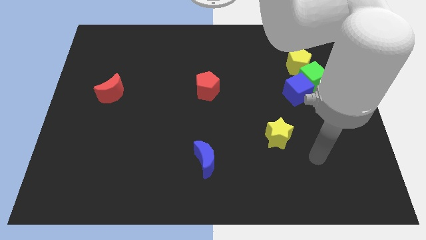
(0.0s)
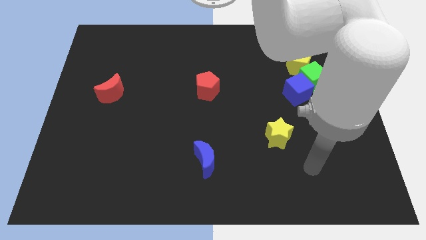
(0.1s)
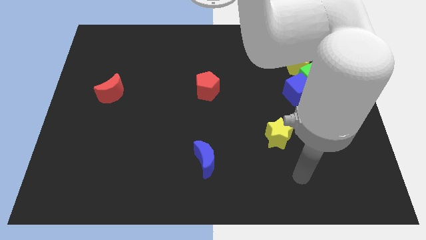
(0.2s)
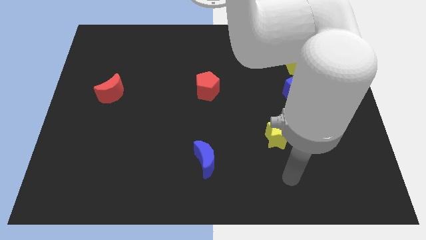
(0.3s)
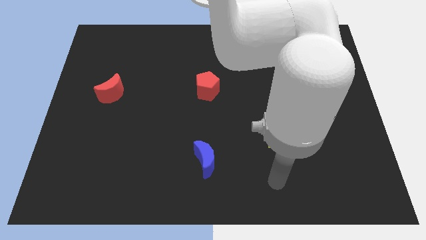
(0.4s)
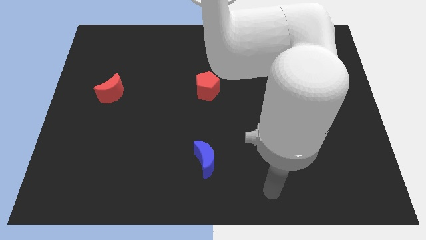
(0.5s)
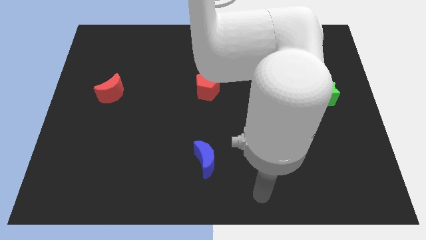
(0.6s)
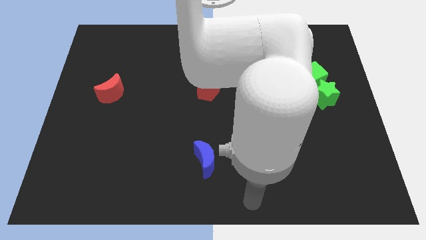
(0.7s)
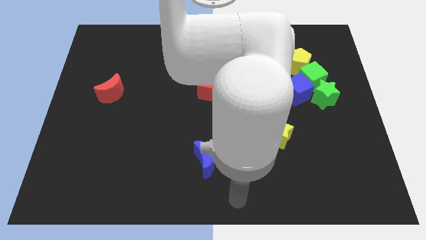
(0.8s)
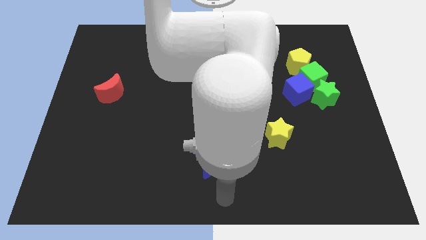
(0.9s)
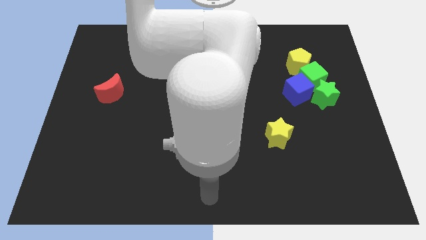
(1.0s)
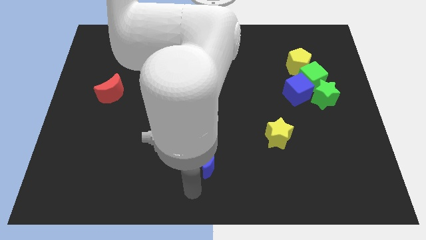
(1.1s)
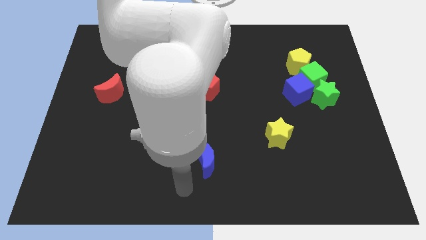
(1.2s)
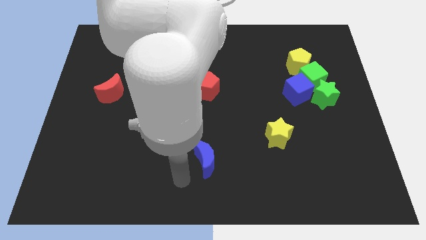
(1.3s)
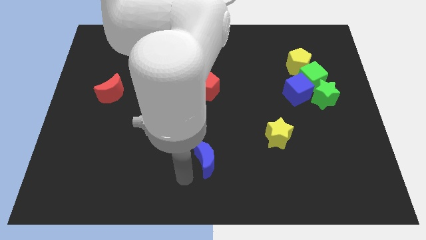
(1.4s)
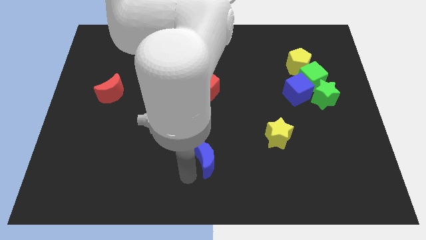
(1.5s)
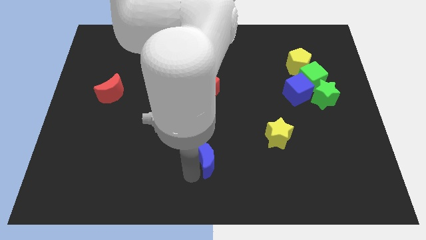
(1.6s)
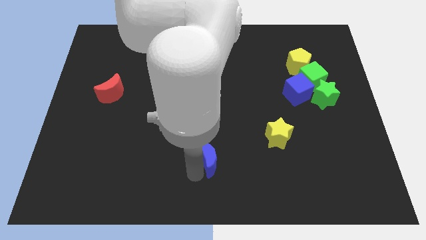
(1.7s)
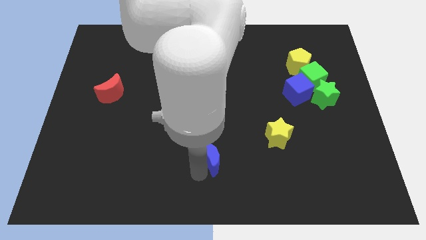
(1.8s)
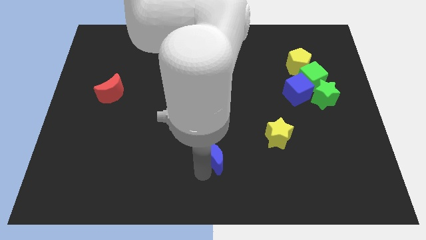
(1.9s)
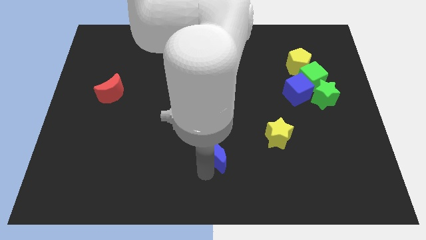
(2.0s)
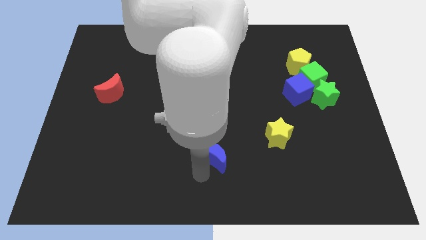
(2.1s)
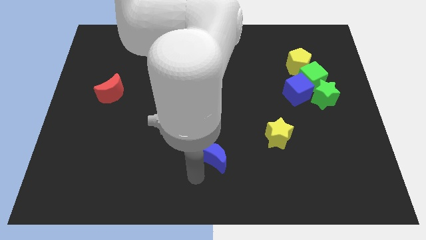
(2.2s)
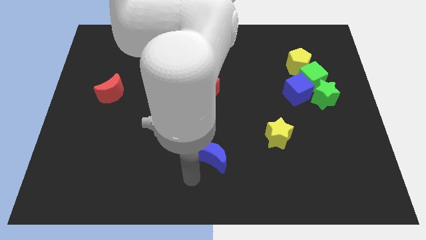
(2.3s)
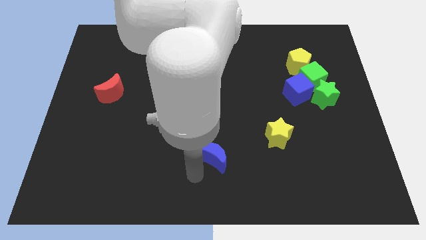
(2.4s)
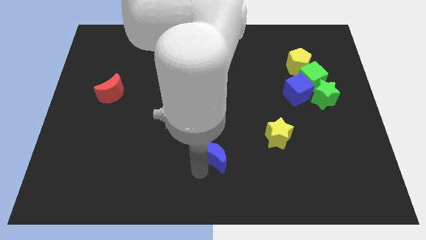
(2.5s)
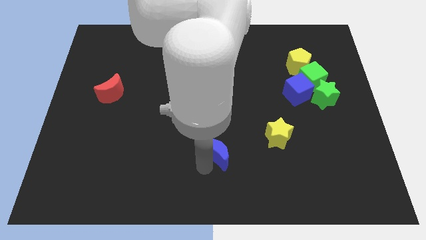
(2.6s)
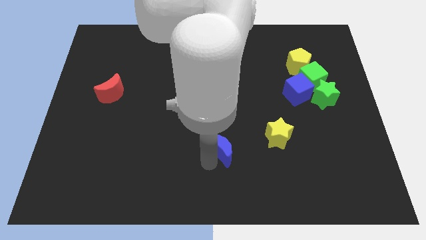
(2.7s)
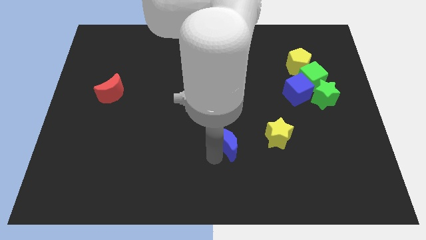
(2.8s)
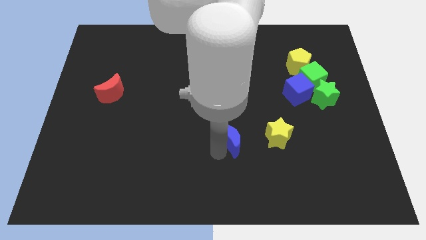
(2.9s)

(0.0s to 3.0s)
push the blue moon up and right somewhat

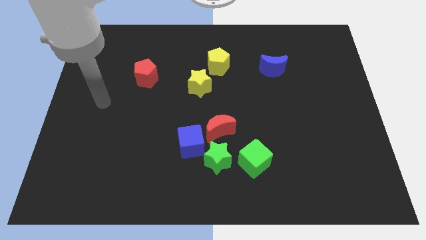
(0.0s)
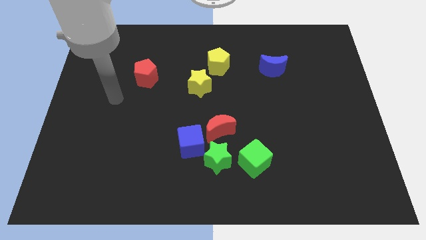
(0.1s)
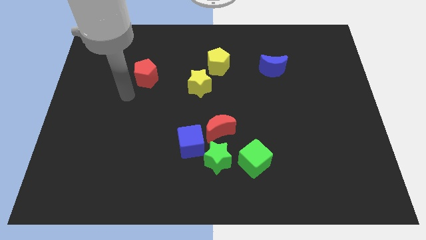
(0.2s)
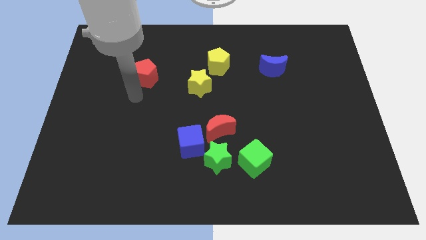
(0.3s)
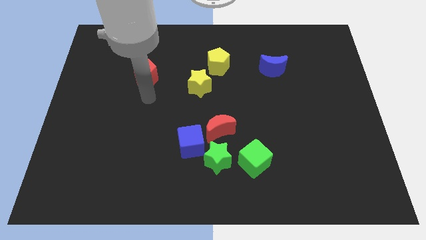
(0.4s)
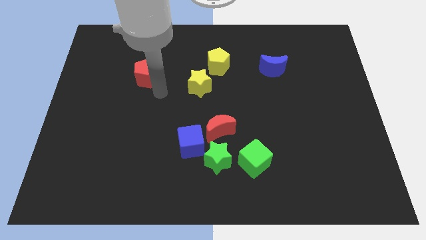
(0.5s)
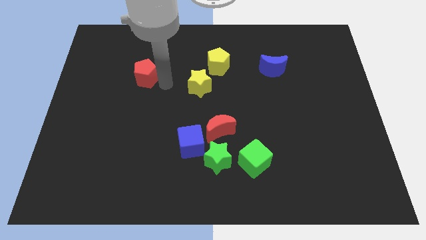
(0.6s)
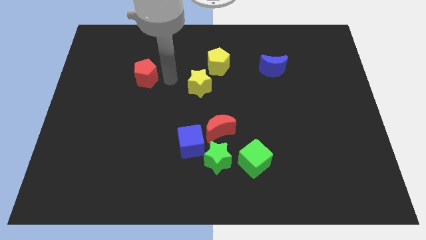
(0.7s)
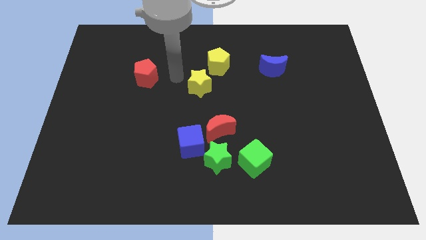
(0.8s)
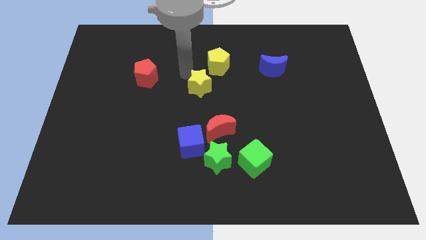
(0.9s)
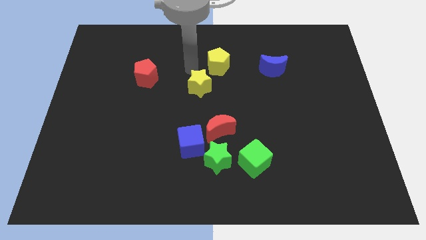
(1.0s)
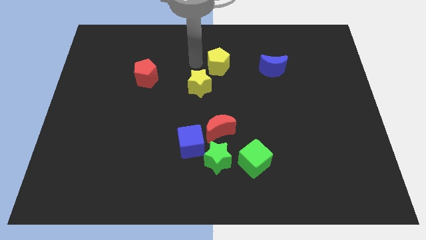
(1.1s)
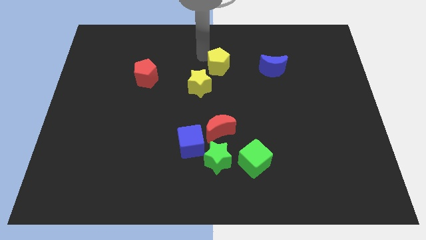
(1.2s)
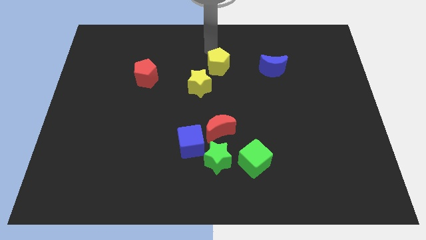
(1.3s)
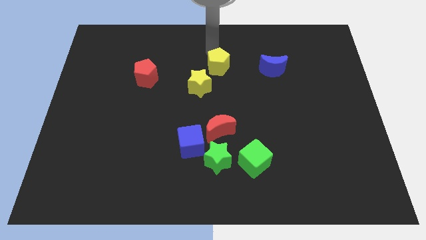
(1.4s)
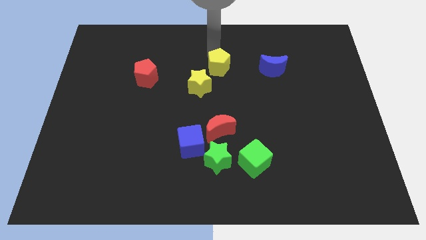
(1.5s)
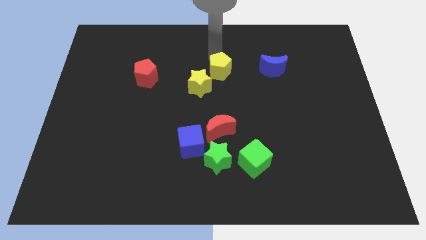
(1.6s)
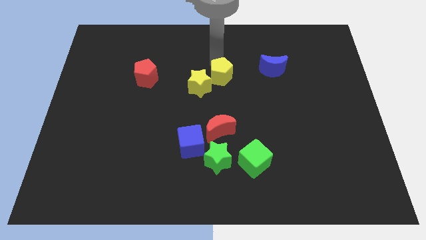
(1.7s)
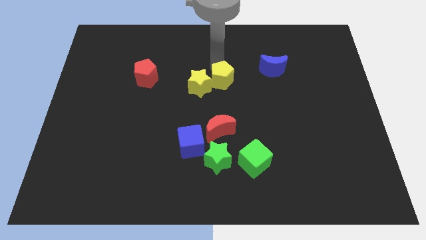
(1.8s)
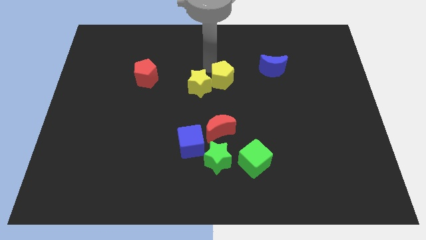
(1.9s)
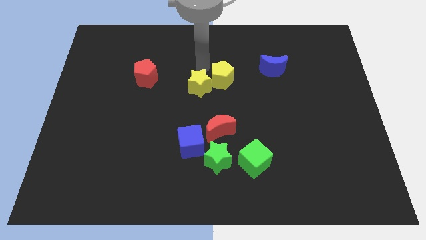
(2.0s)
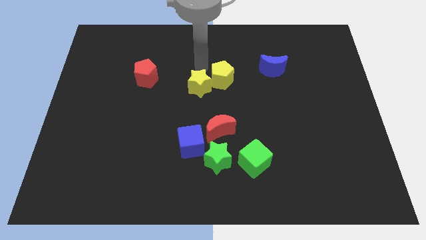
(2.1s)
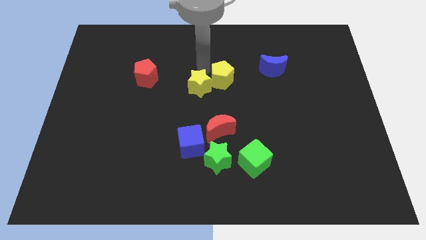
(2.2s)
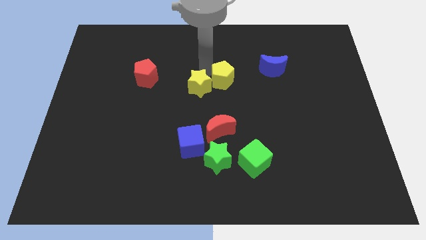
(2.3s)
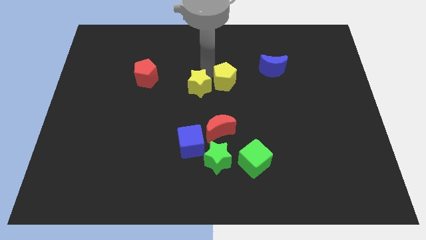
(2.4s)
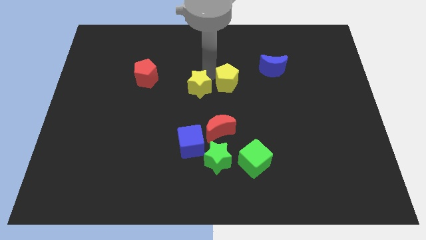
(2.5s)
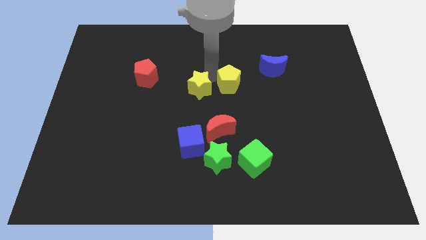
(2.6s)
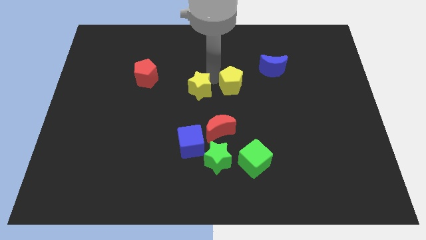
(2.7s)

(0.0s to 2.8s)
push the yellow pentagon a little downwards and to the right

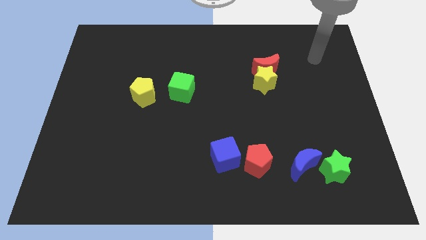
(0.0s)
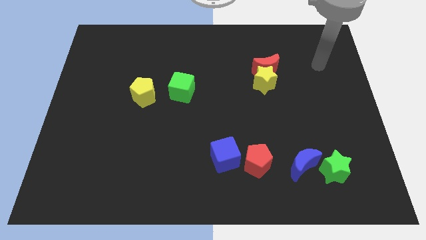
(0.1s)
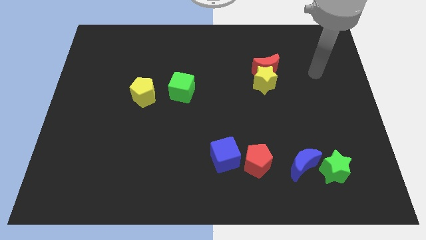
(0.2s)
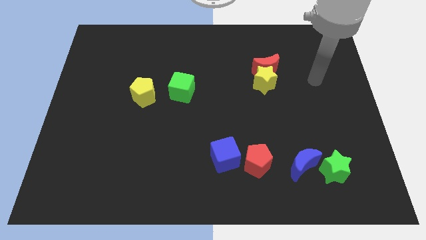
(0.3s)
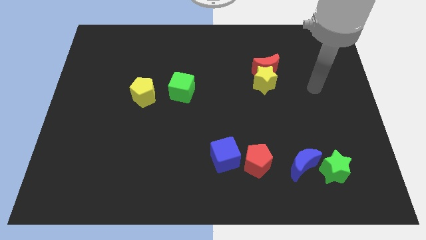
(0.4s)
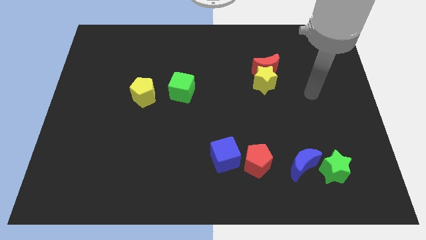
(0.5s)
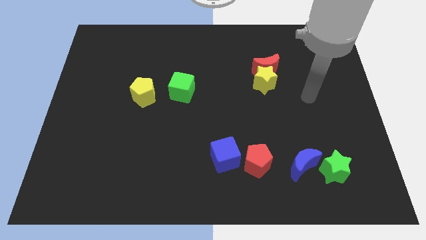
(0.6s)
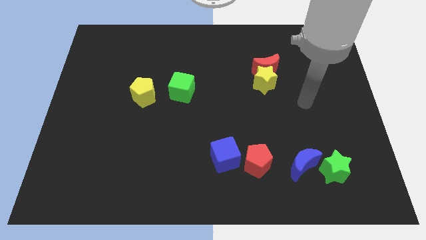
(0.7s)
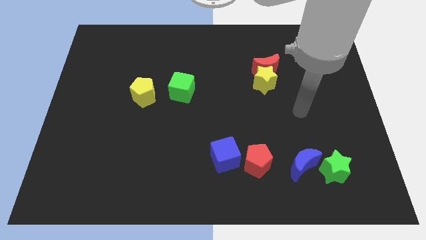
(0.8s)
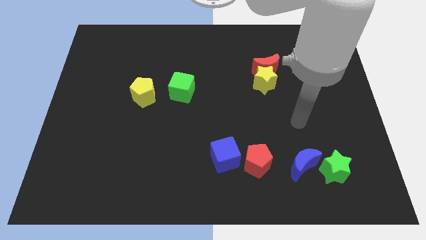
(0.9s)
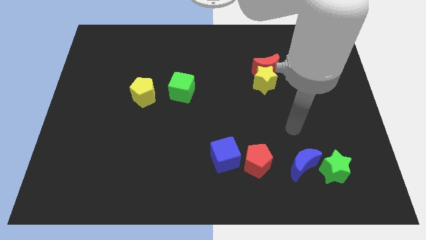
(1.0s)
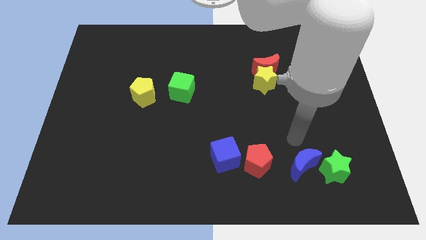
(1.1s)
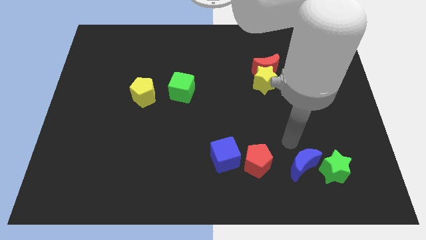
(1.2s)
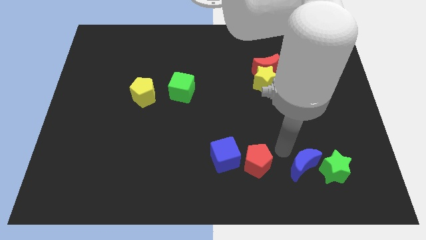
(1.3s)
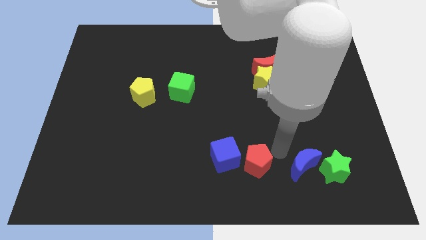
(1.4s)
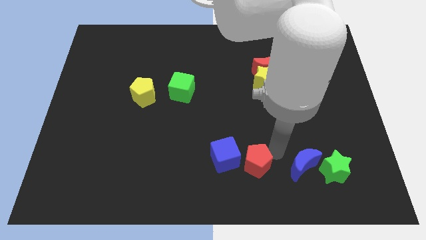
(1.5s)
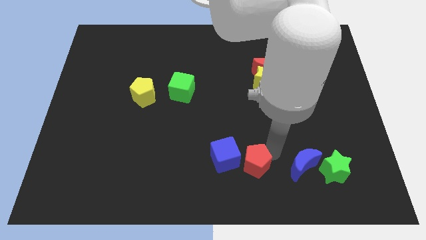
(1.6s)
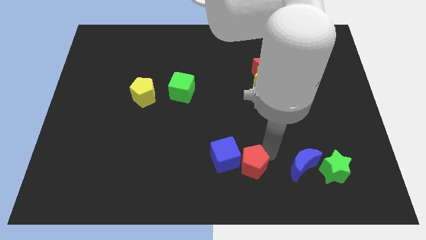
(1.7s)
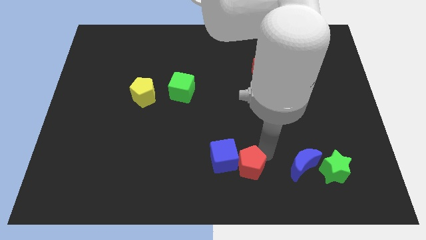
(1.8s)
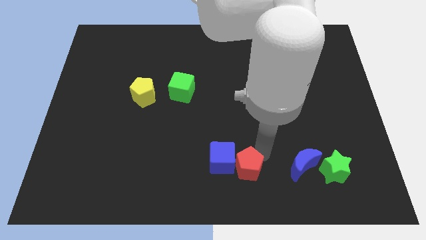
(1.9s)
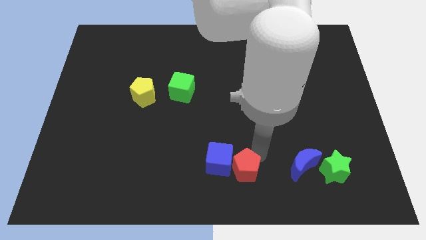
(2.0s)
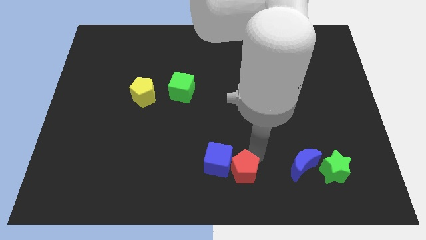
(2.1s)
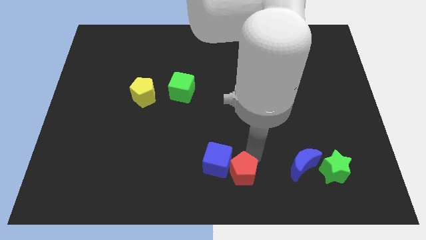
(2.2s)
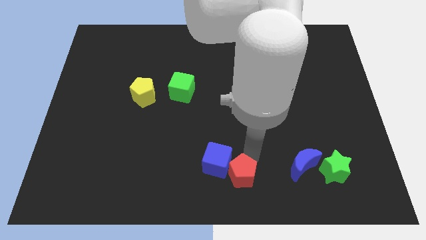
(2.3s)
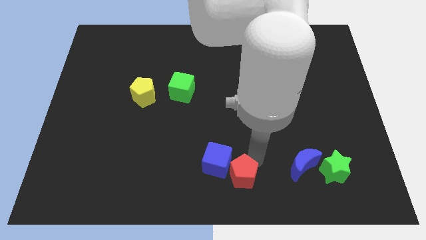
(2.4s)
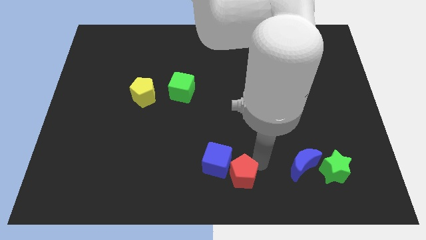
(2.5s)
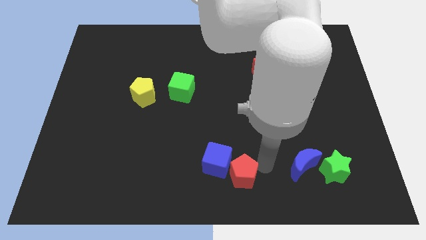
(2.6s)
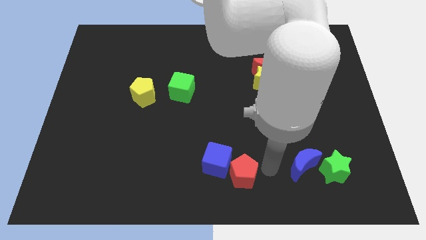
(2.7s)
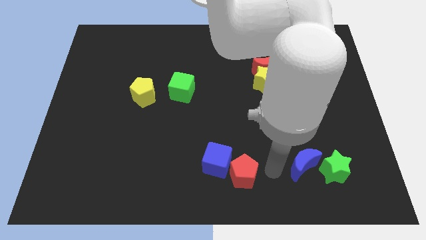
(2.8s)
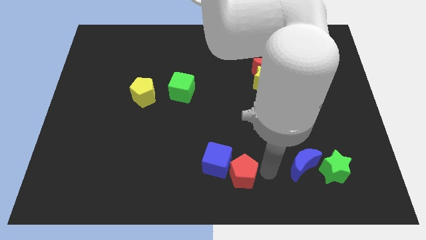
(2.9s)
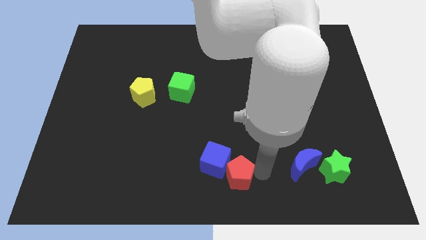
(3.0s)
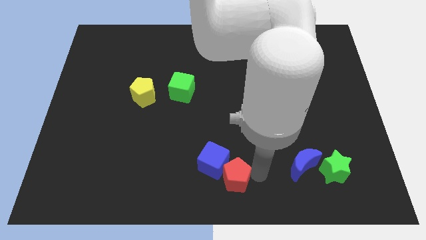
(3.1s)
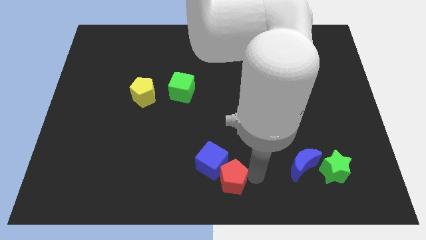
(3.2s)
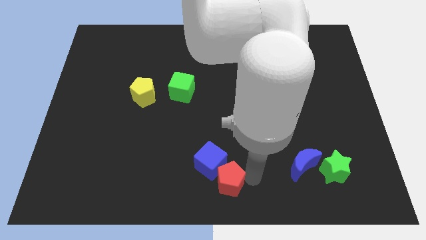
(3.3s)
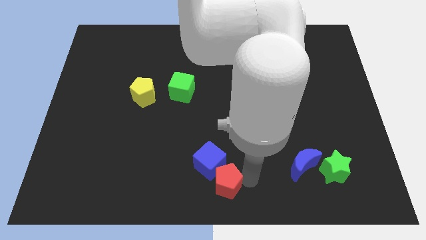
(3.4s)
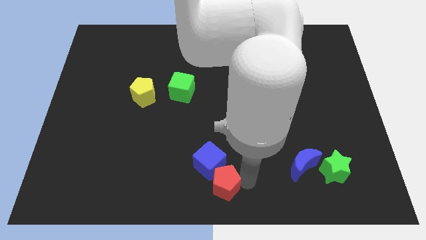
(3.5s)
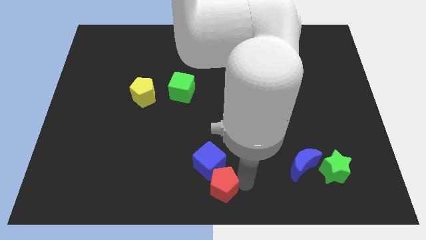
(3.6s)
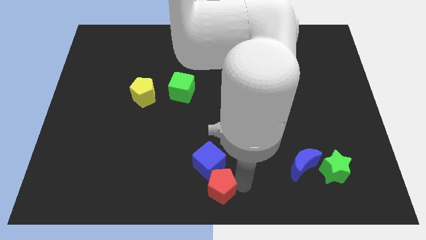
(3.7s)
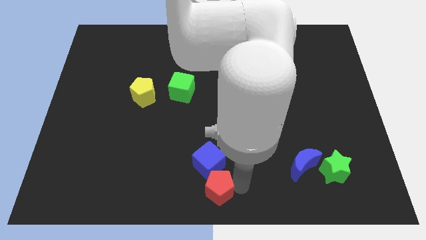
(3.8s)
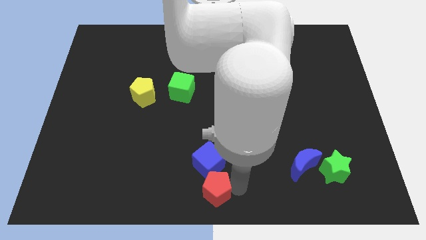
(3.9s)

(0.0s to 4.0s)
push the red pentagon a little bit left
